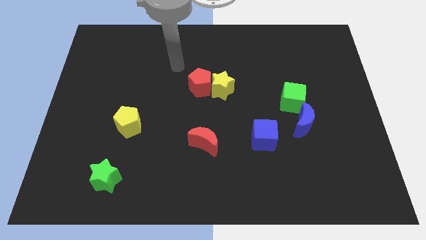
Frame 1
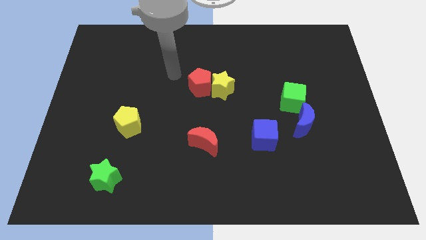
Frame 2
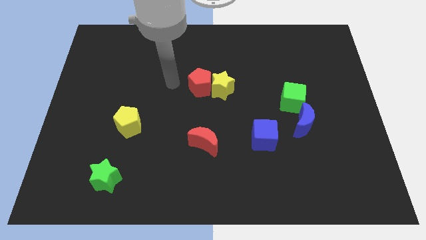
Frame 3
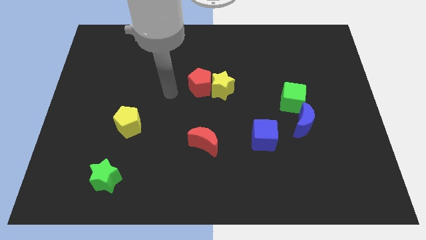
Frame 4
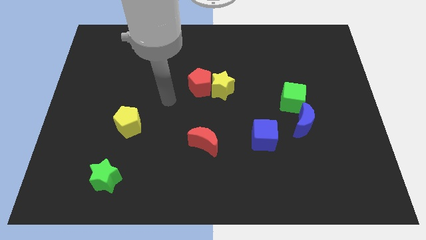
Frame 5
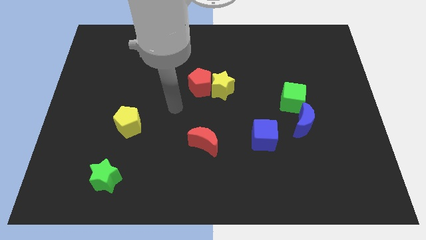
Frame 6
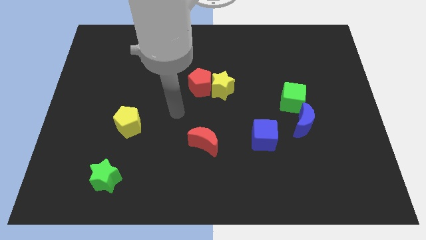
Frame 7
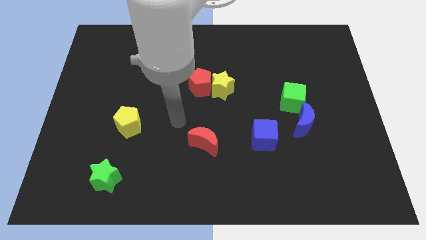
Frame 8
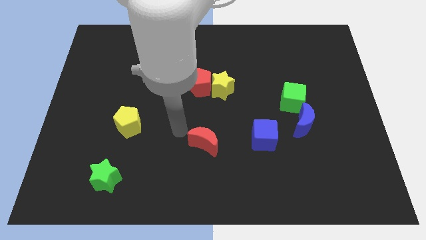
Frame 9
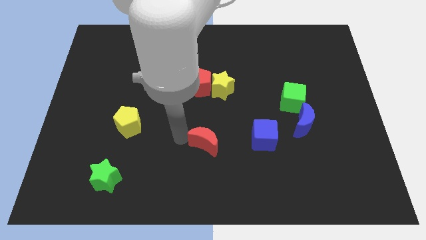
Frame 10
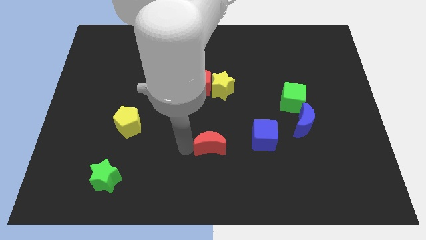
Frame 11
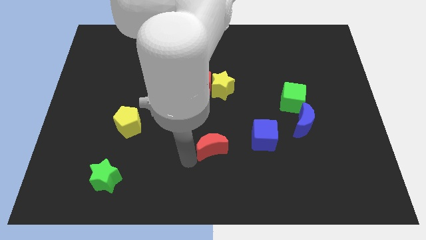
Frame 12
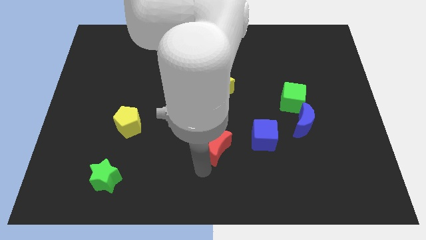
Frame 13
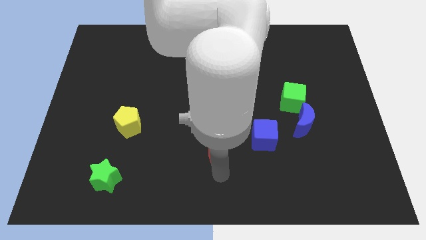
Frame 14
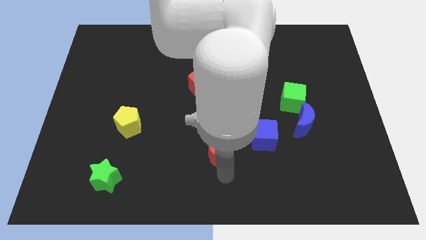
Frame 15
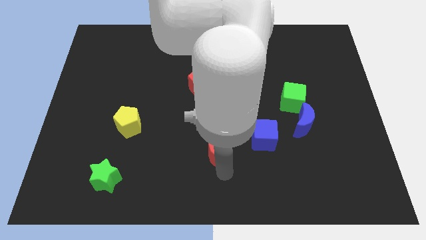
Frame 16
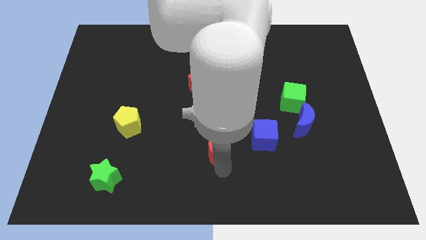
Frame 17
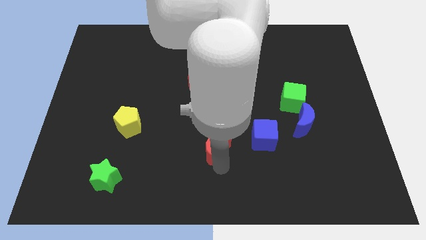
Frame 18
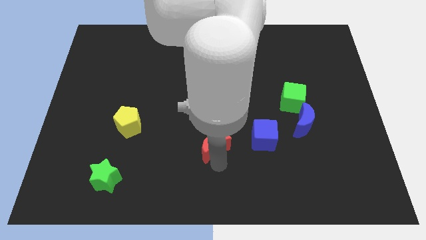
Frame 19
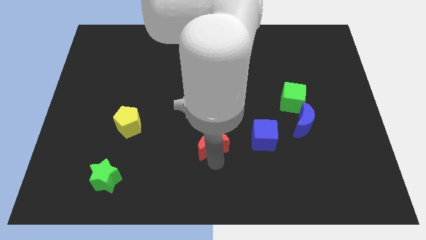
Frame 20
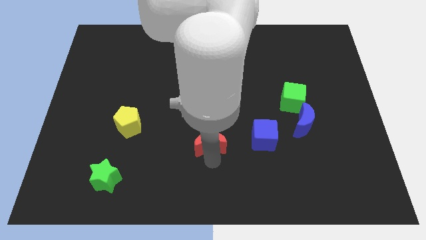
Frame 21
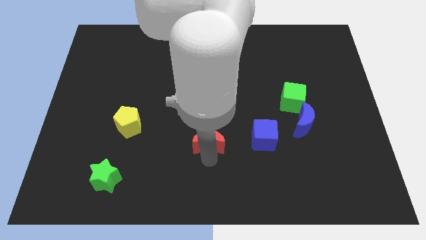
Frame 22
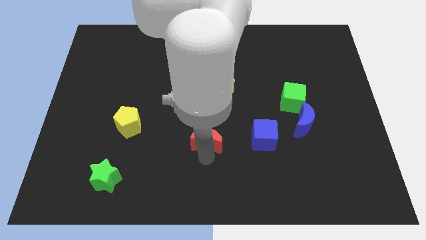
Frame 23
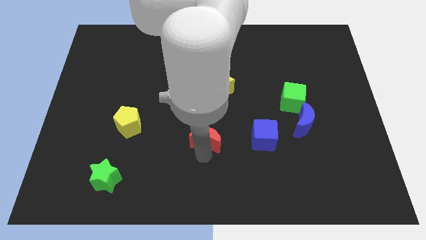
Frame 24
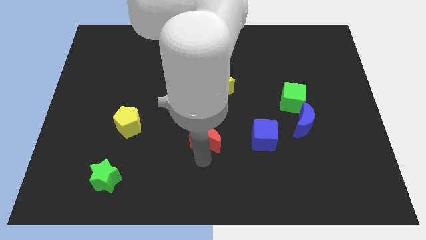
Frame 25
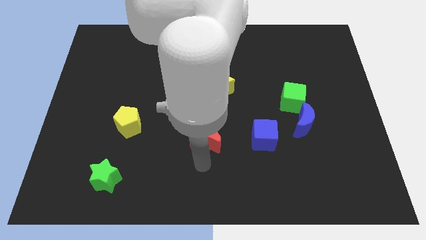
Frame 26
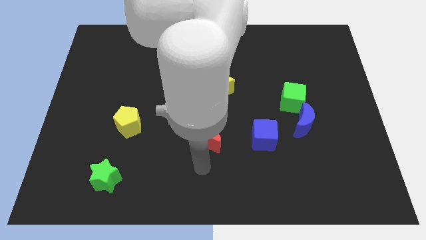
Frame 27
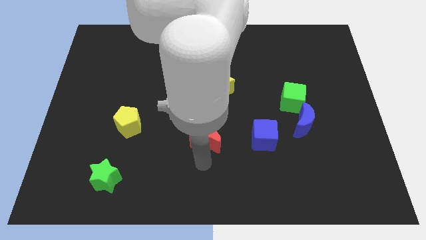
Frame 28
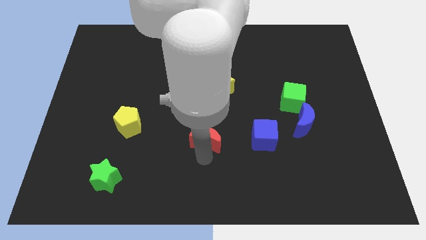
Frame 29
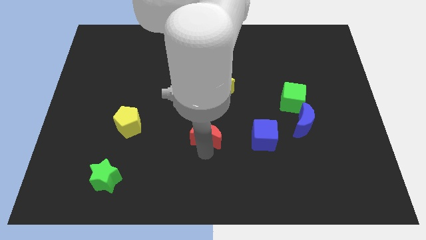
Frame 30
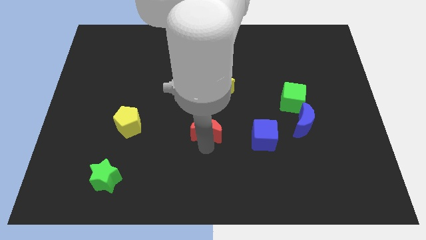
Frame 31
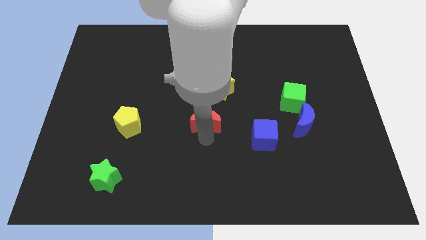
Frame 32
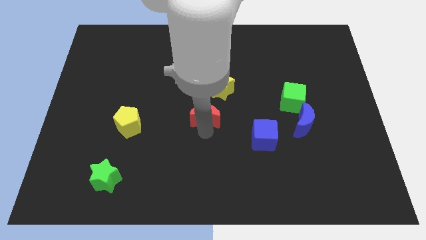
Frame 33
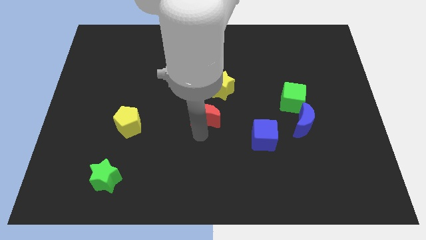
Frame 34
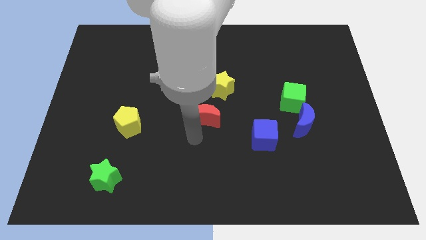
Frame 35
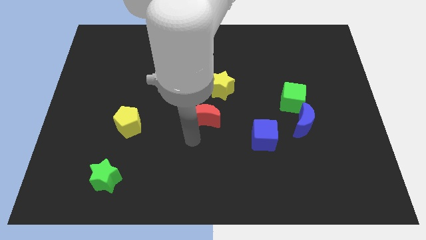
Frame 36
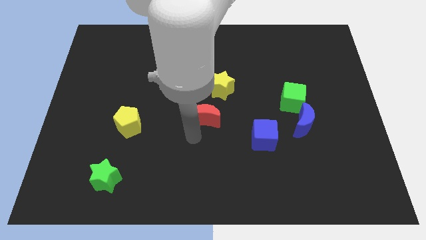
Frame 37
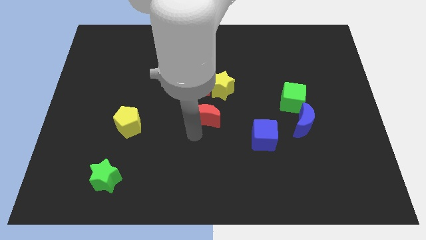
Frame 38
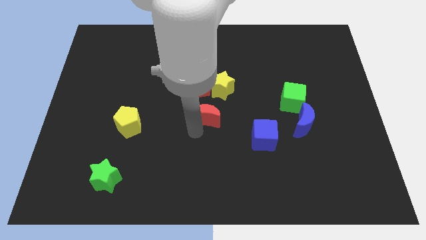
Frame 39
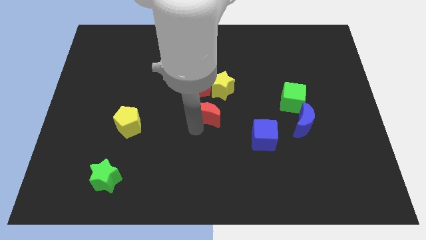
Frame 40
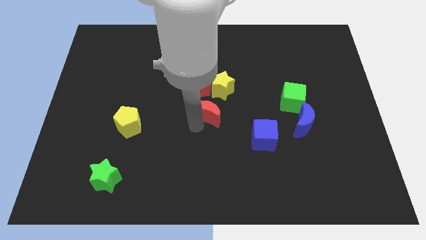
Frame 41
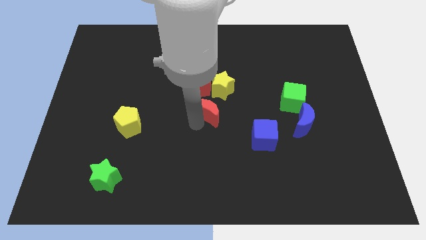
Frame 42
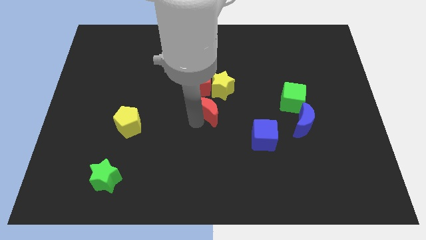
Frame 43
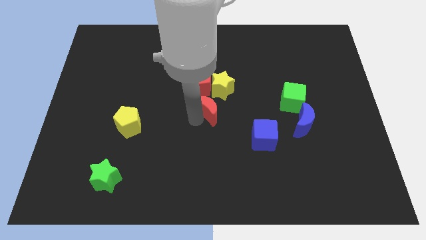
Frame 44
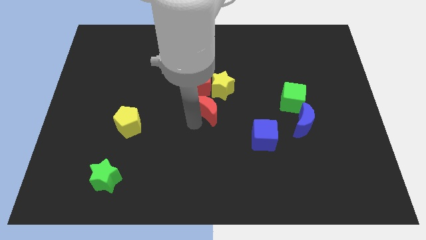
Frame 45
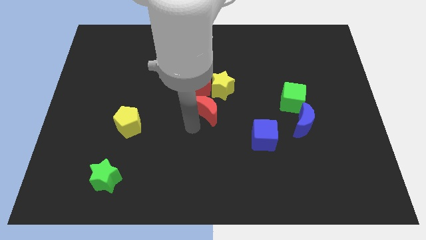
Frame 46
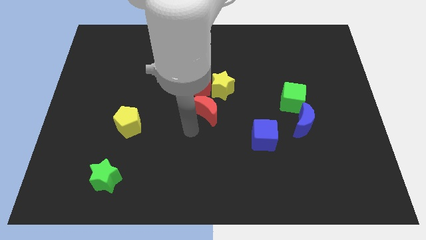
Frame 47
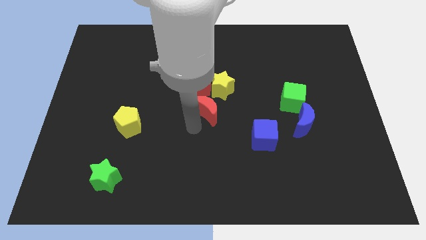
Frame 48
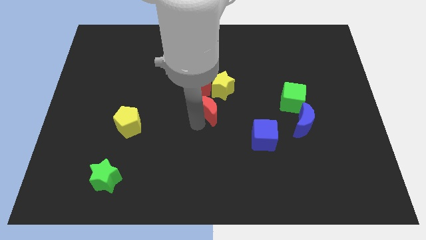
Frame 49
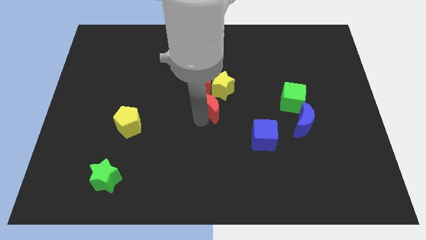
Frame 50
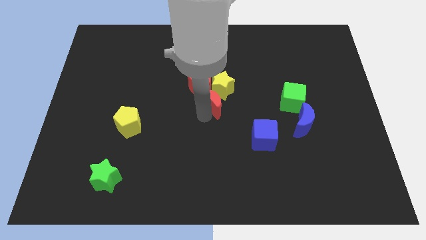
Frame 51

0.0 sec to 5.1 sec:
put the red moon next to the yellow star

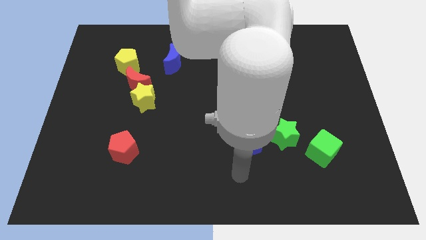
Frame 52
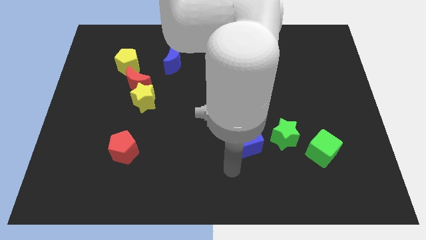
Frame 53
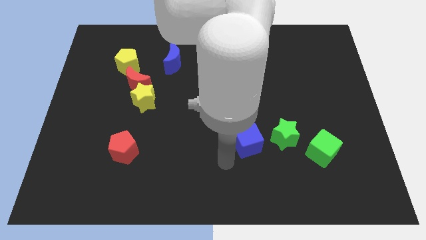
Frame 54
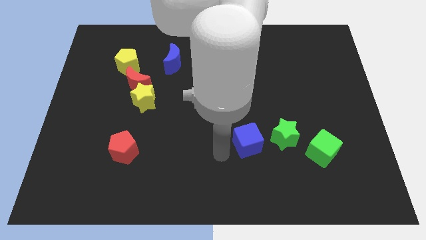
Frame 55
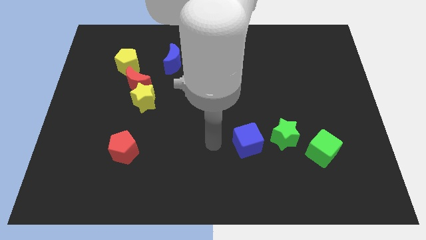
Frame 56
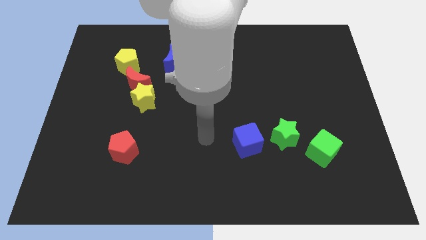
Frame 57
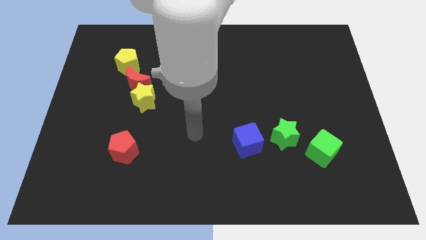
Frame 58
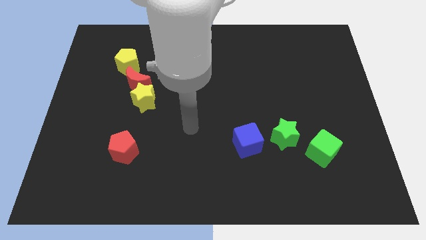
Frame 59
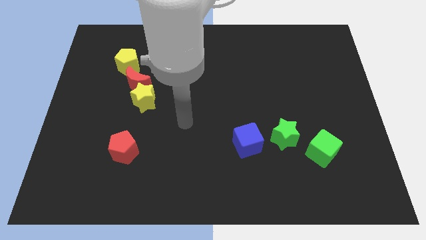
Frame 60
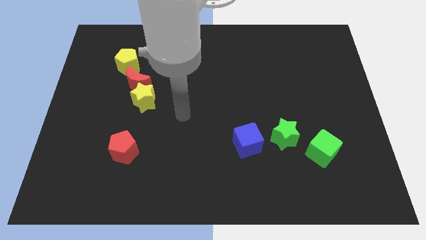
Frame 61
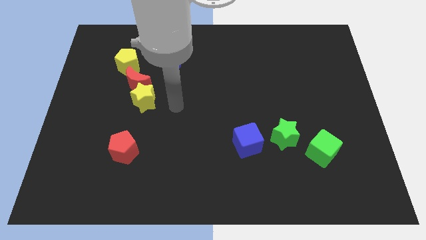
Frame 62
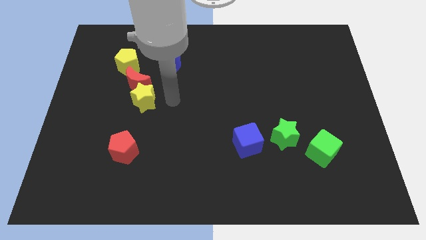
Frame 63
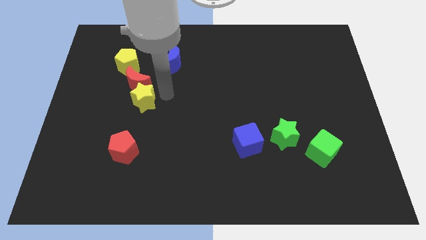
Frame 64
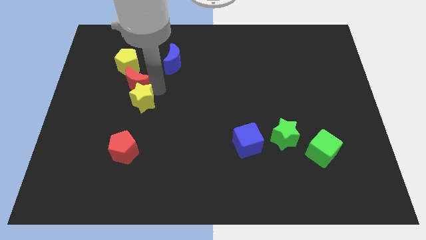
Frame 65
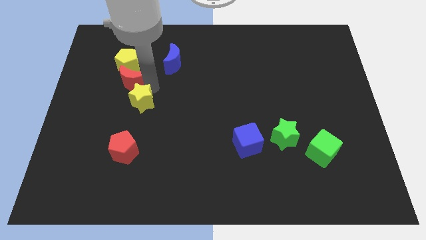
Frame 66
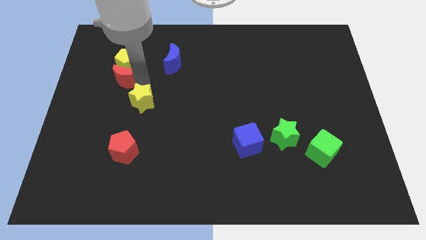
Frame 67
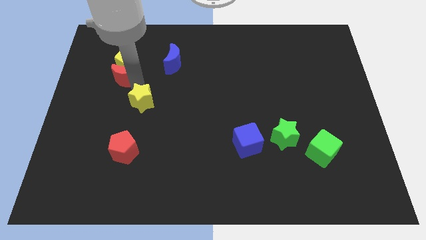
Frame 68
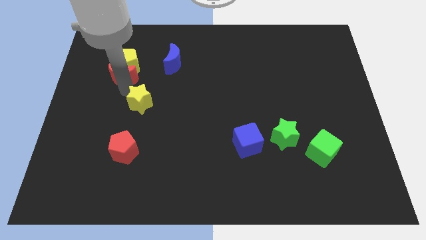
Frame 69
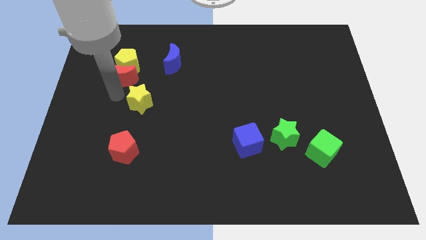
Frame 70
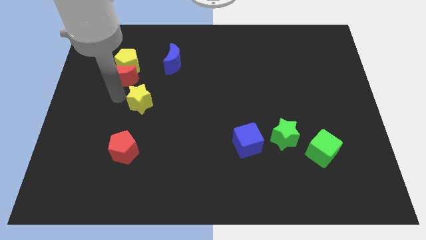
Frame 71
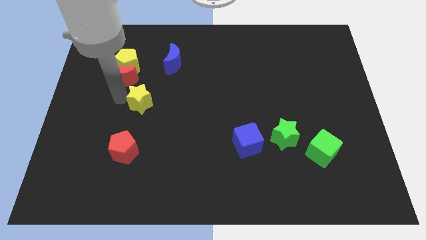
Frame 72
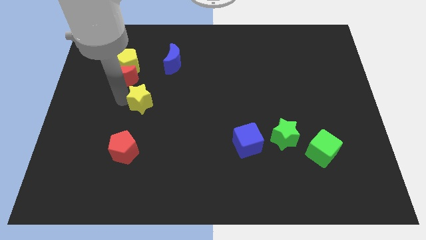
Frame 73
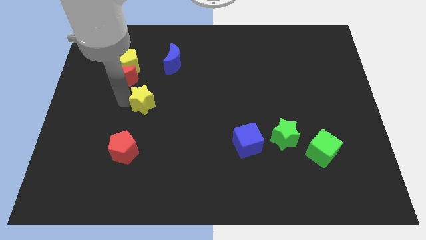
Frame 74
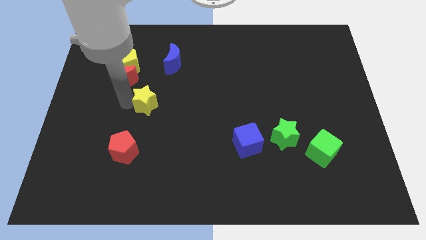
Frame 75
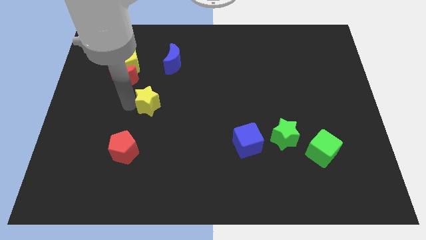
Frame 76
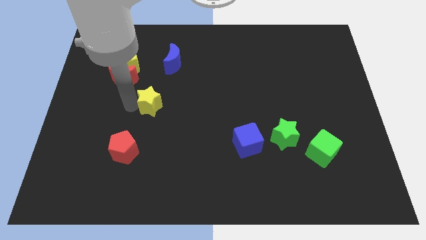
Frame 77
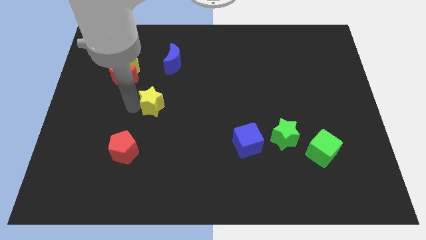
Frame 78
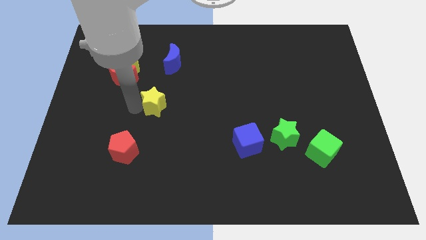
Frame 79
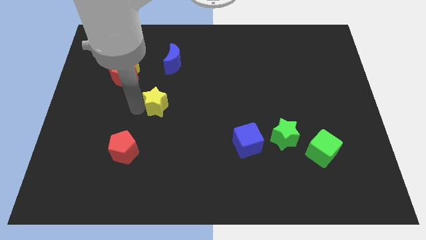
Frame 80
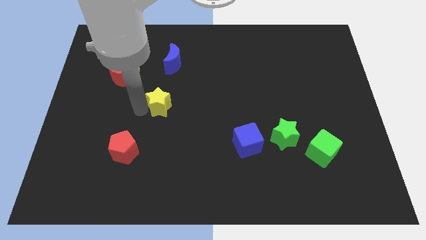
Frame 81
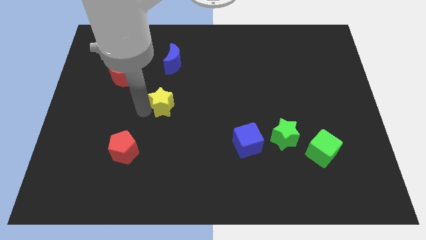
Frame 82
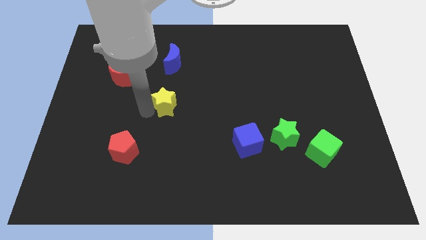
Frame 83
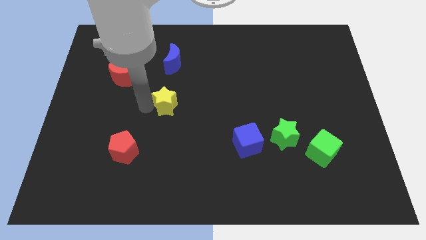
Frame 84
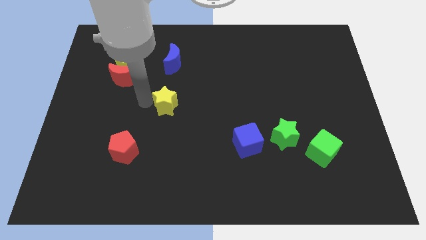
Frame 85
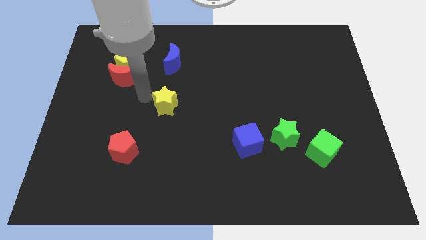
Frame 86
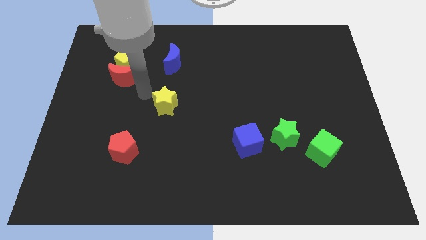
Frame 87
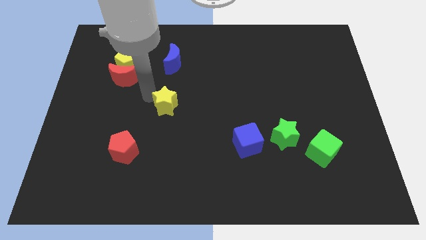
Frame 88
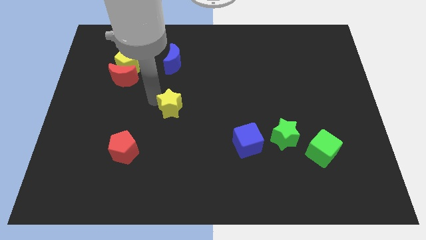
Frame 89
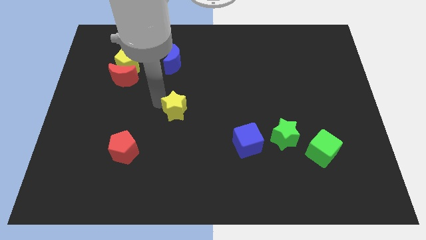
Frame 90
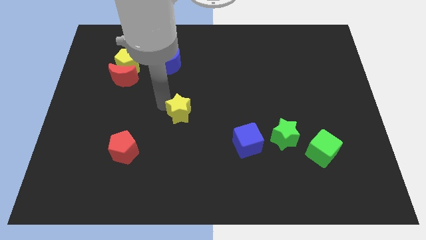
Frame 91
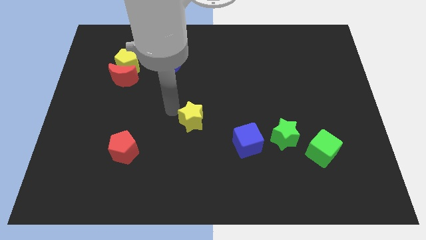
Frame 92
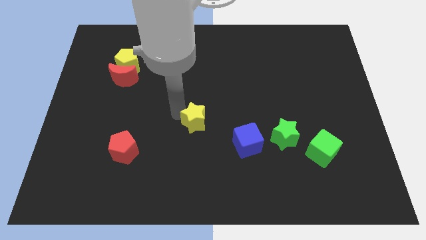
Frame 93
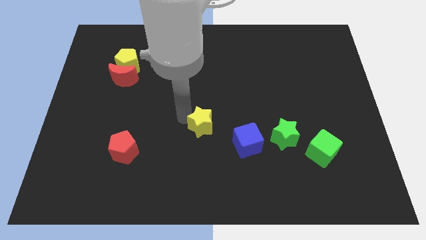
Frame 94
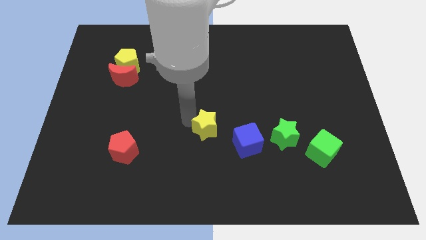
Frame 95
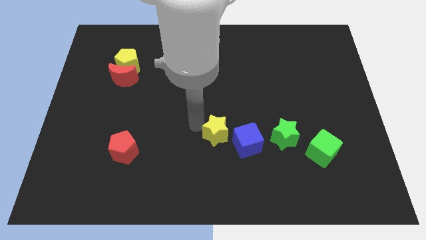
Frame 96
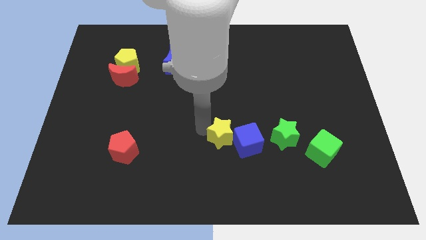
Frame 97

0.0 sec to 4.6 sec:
move the yellow star towards the blue cube
